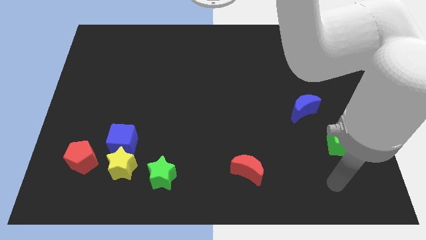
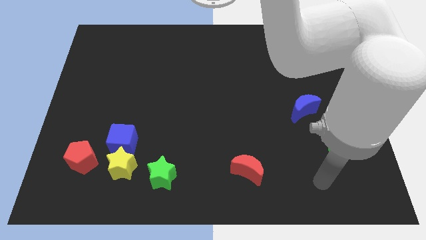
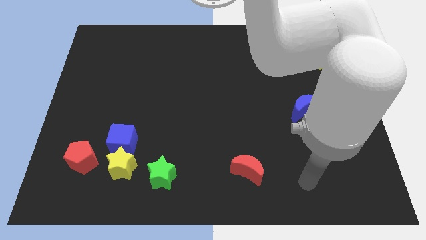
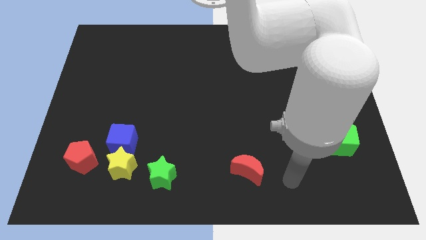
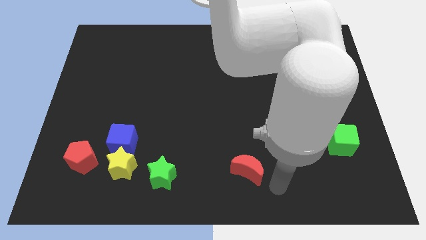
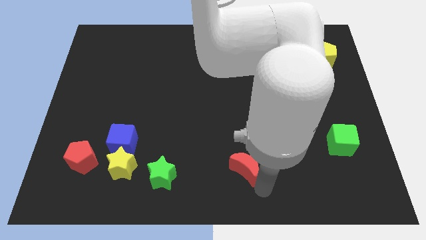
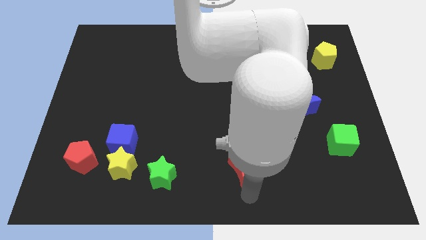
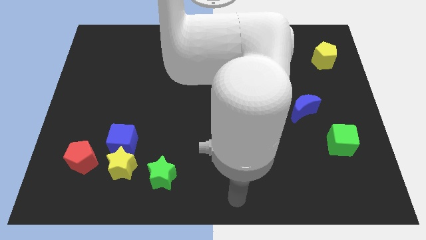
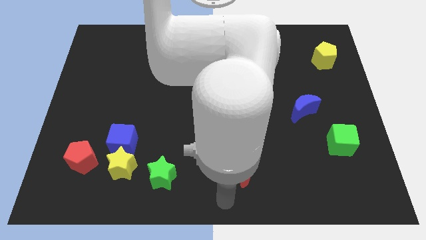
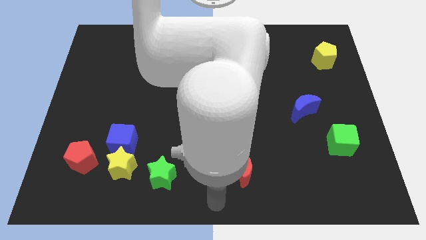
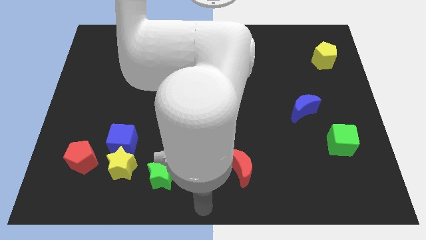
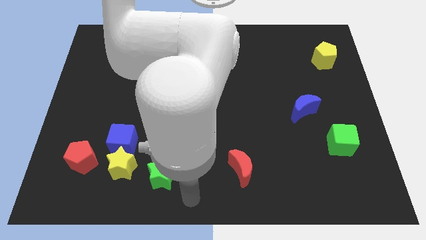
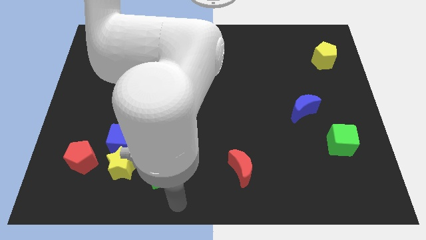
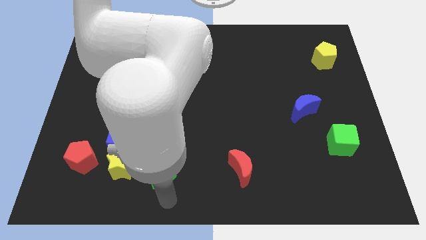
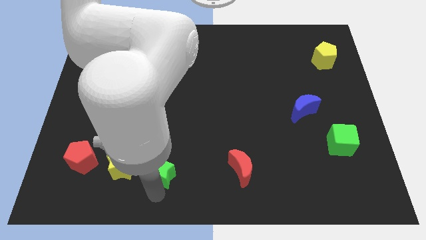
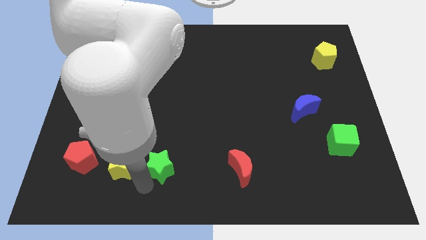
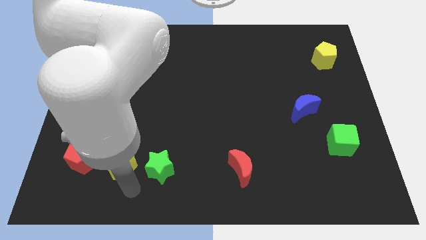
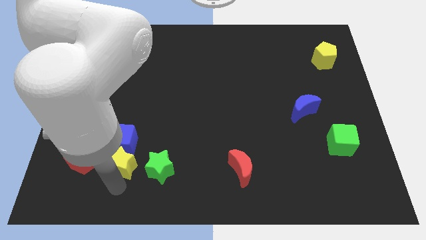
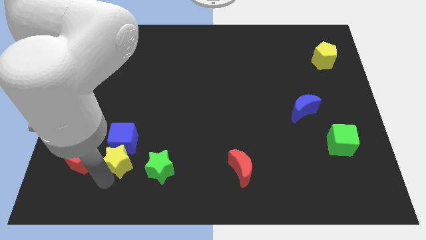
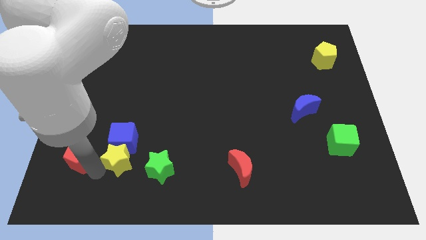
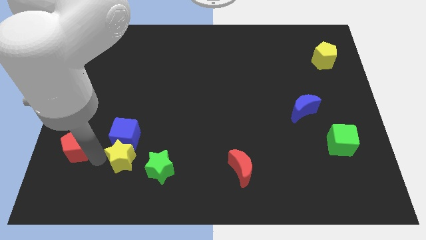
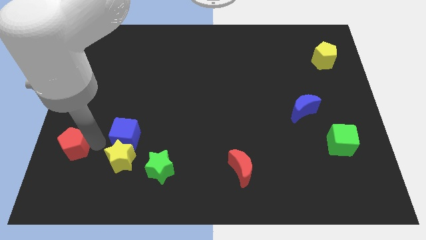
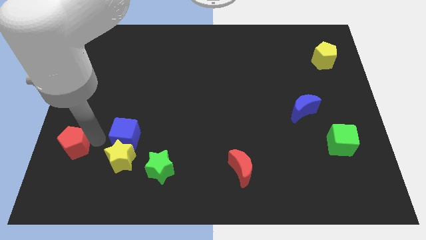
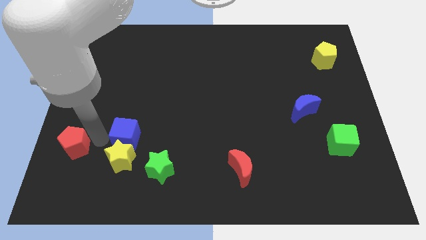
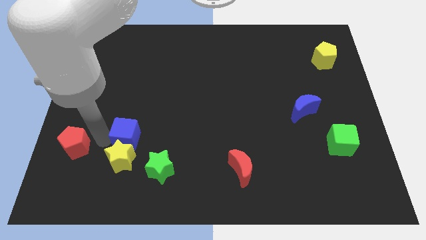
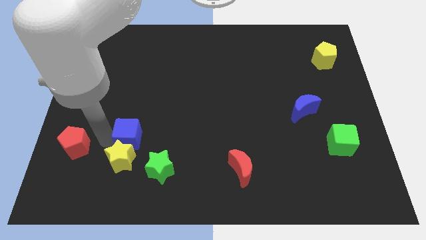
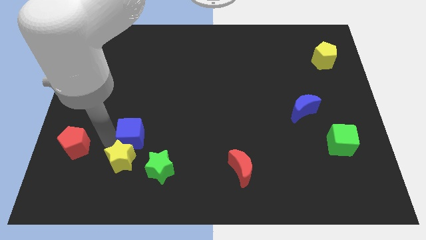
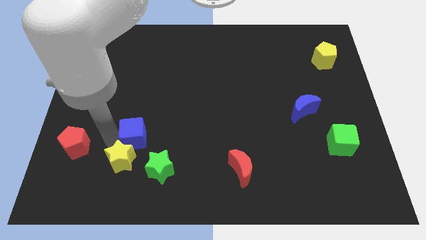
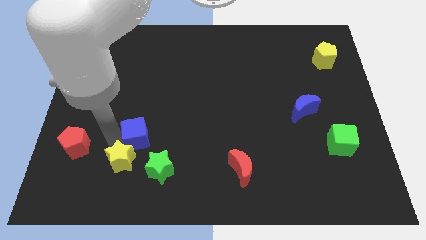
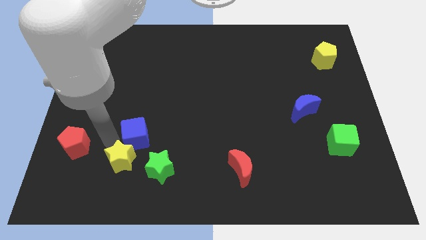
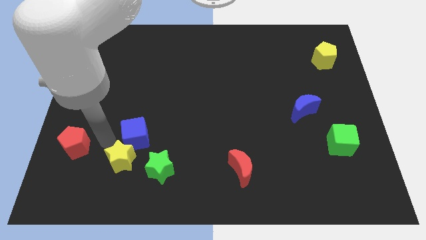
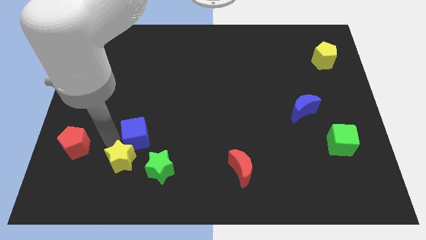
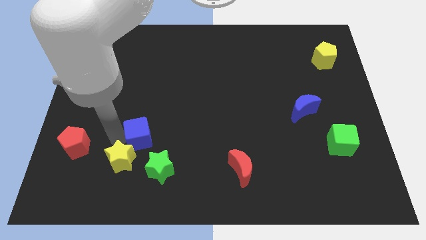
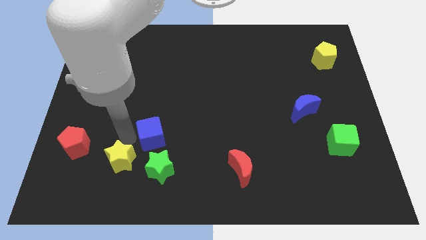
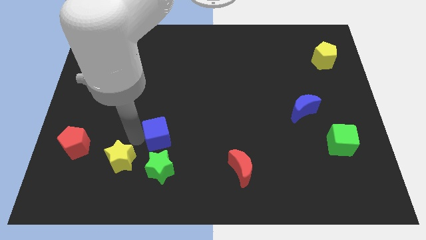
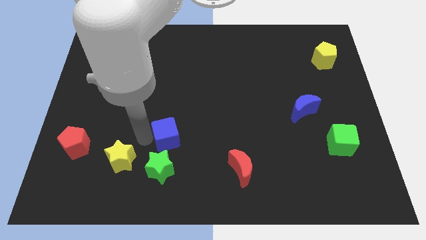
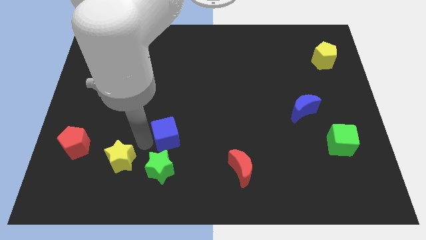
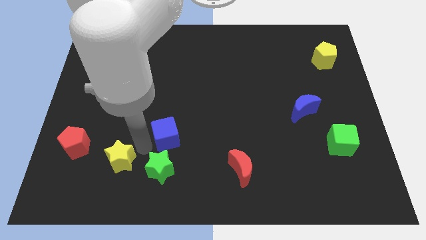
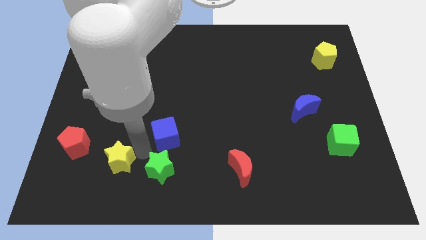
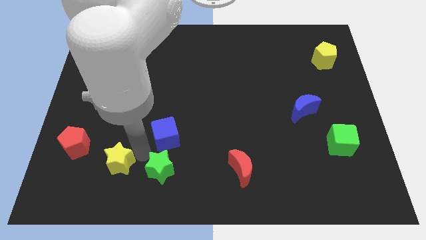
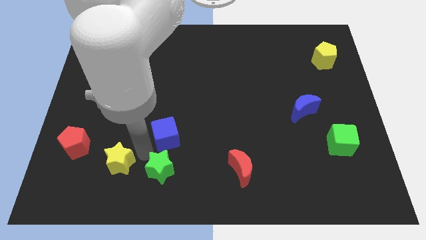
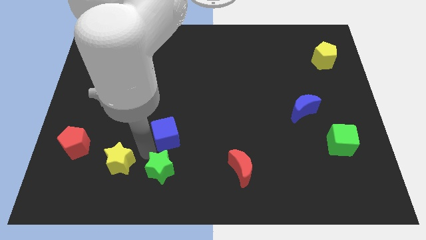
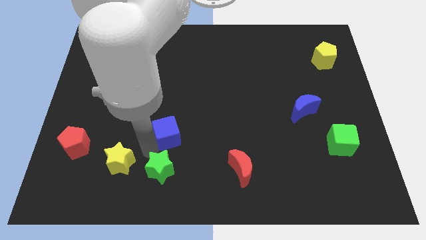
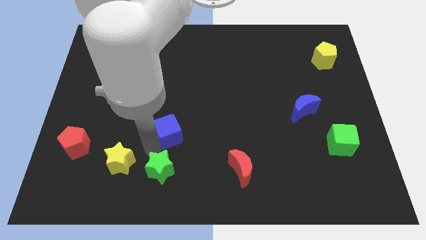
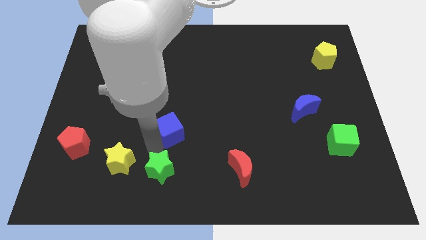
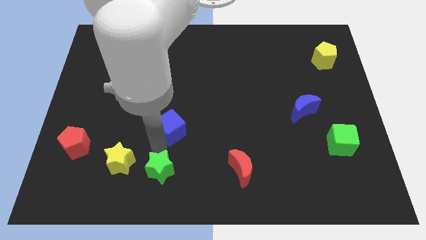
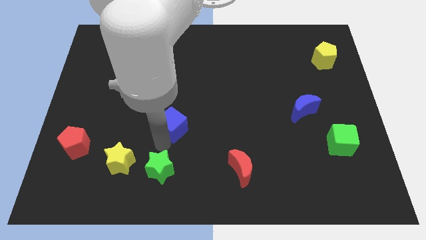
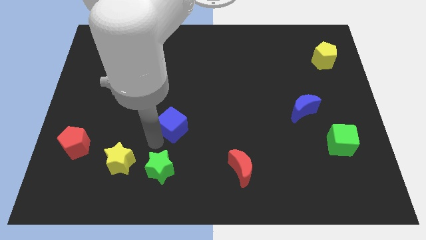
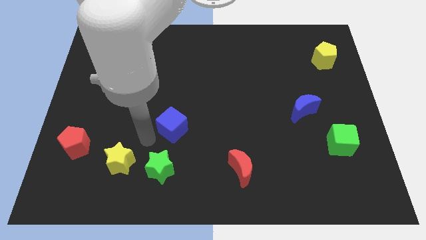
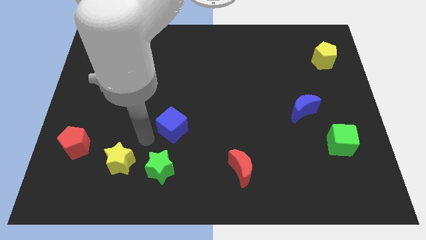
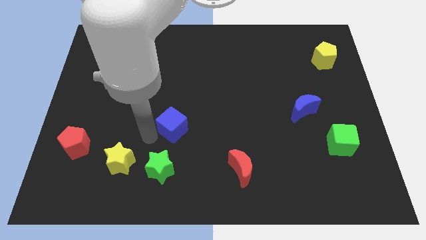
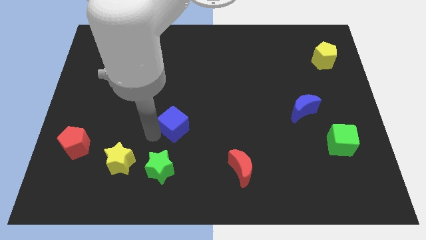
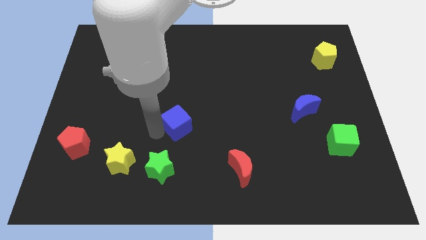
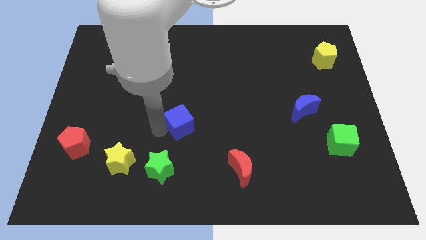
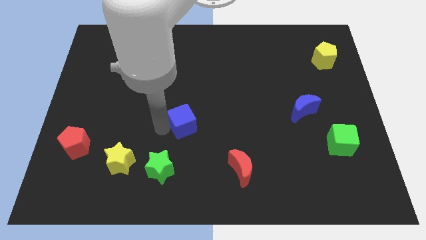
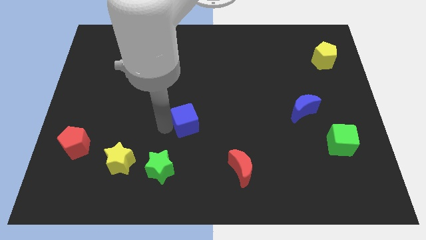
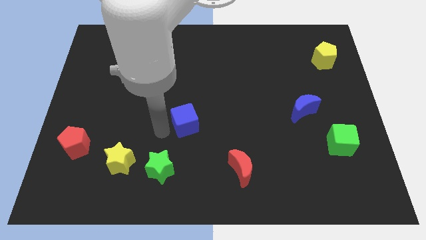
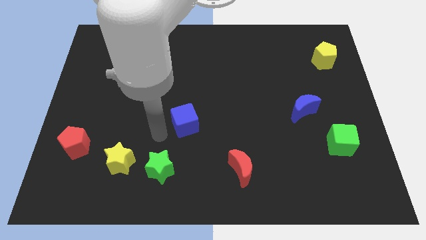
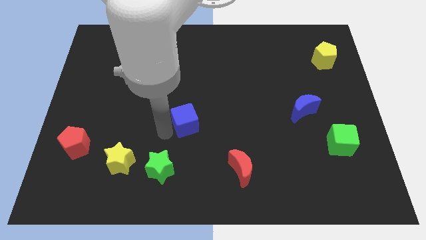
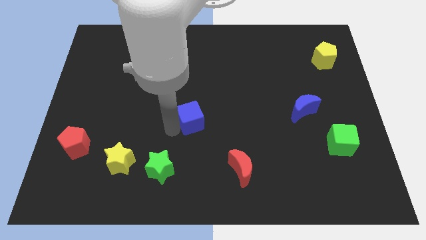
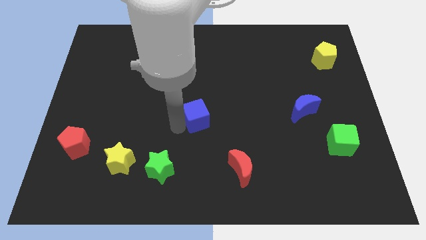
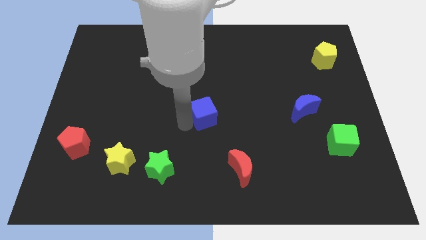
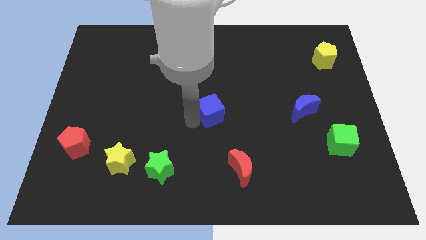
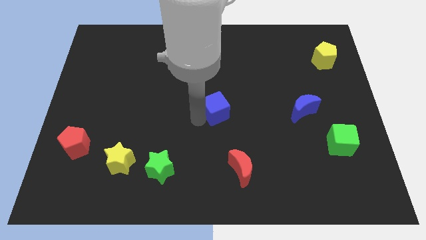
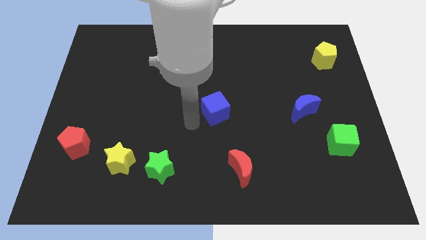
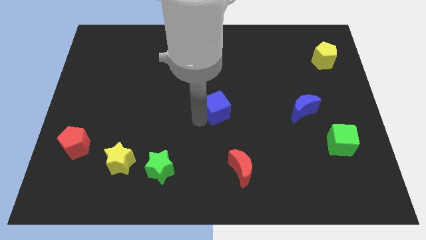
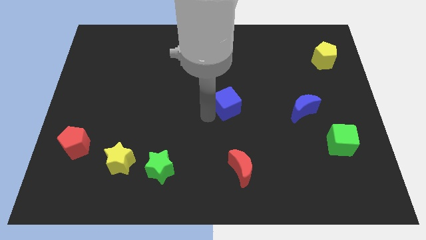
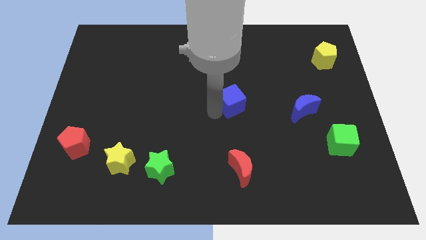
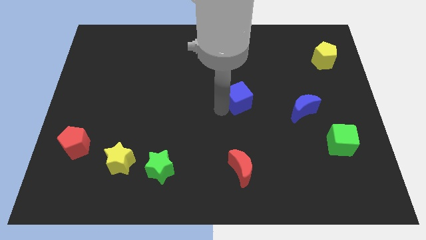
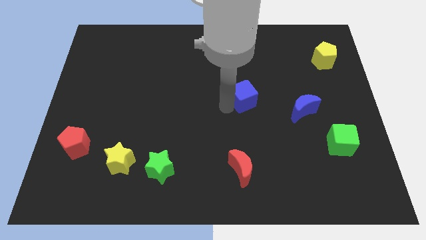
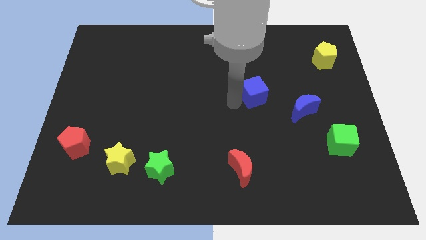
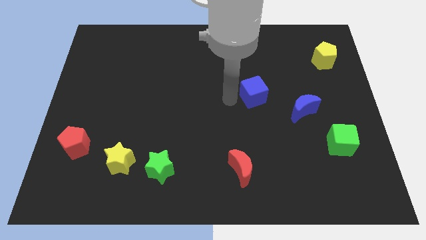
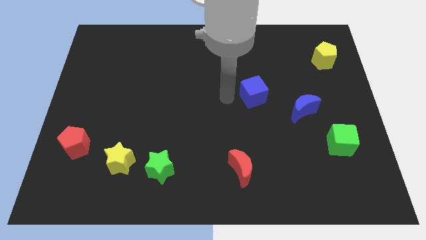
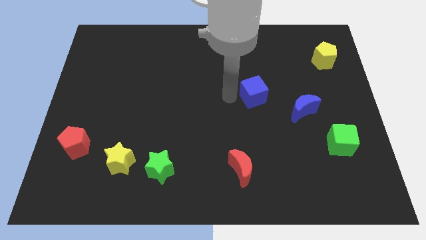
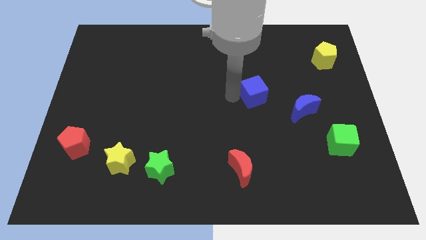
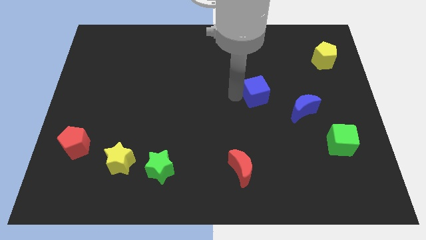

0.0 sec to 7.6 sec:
put the blue cube to the top left side of the blue moon
